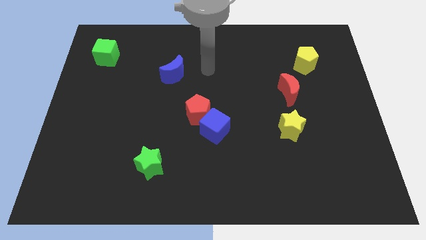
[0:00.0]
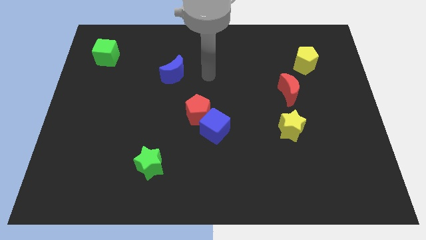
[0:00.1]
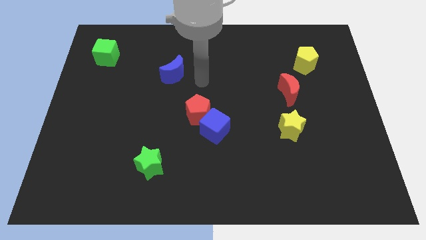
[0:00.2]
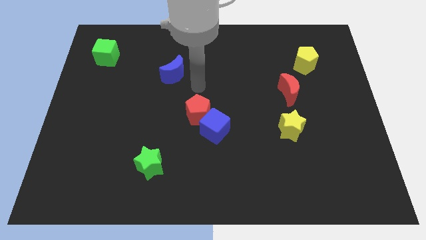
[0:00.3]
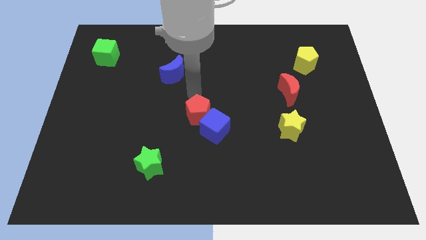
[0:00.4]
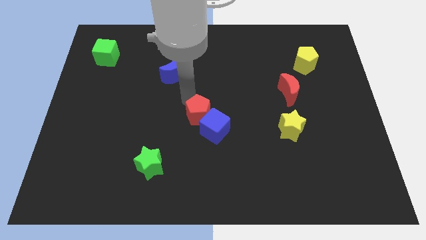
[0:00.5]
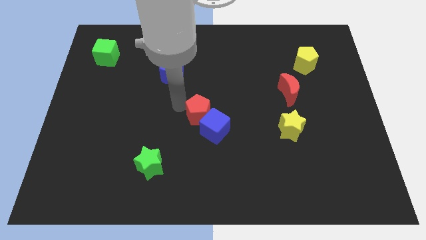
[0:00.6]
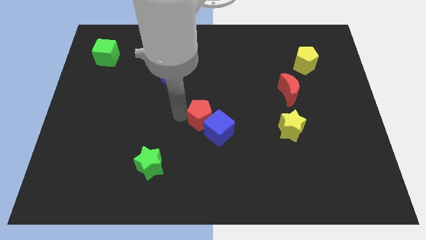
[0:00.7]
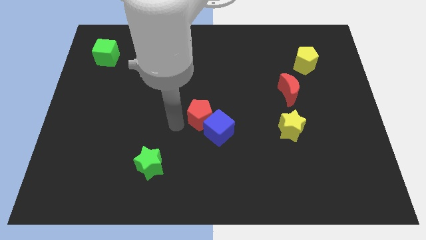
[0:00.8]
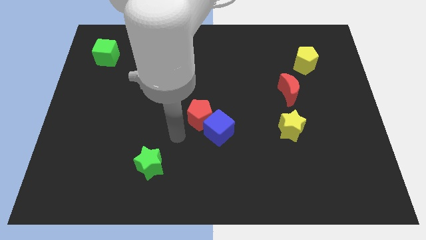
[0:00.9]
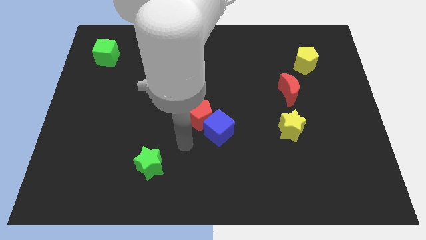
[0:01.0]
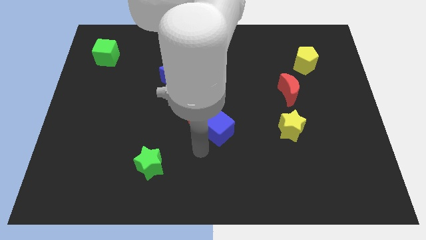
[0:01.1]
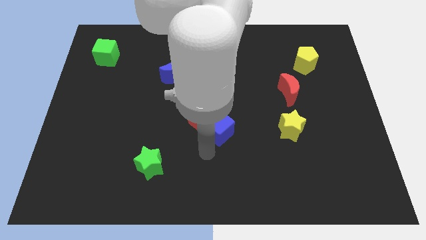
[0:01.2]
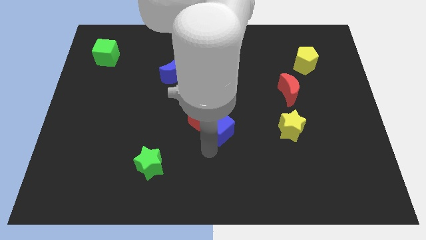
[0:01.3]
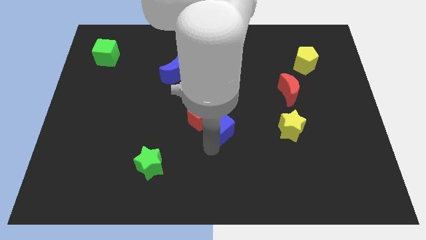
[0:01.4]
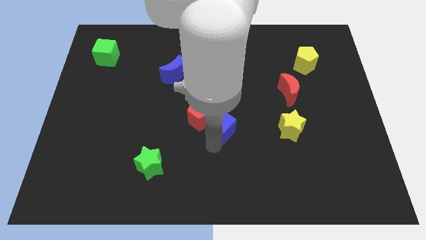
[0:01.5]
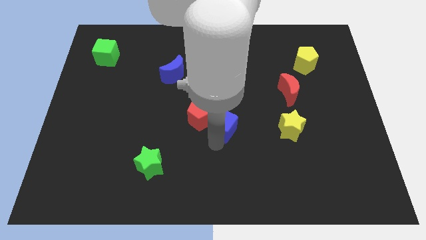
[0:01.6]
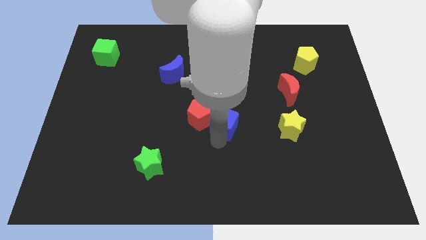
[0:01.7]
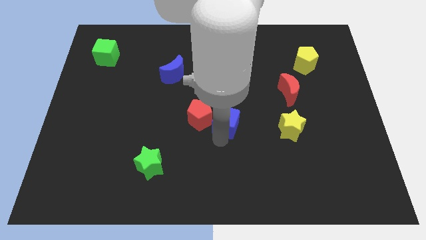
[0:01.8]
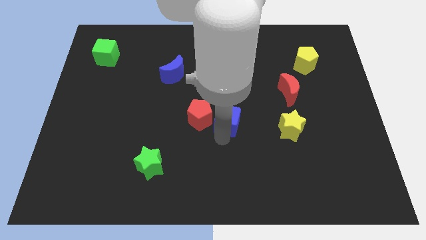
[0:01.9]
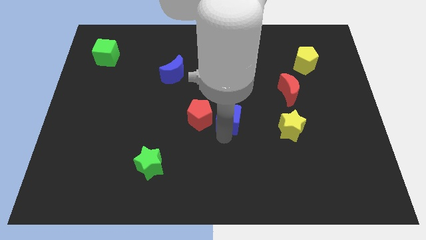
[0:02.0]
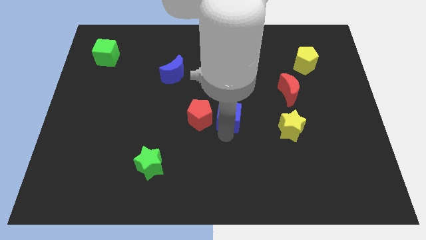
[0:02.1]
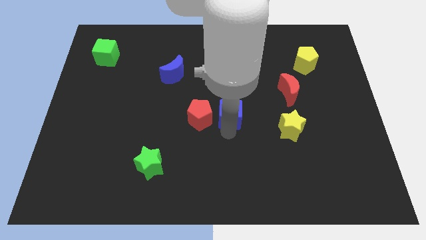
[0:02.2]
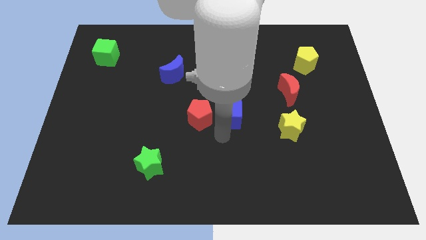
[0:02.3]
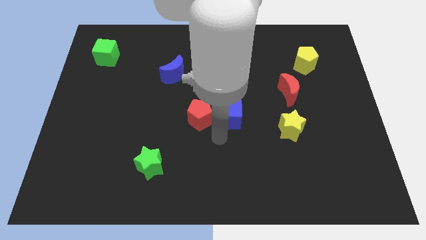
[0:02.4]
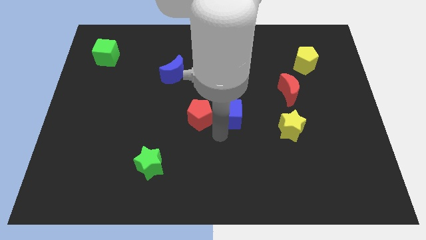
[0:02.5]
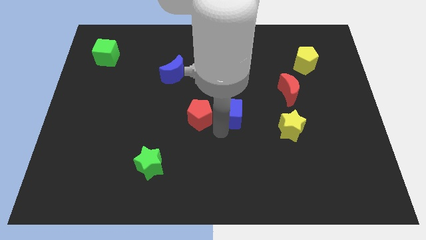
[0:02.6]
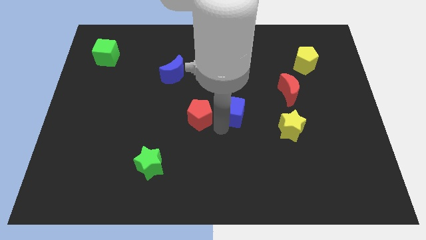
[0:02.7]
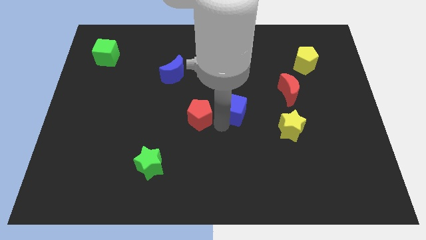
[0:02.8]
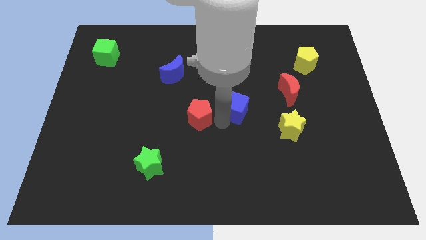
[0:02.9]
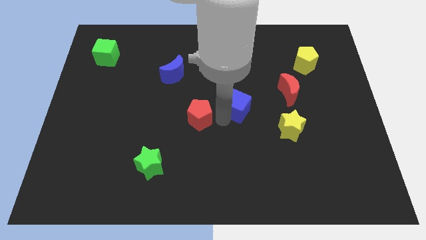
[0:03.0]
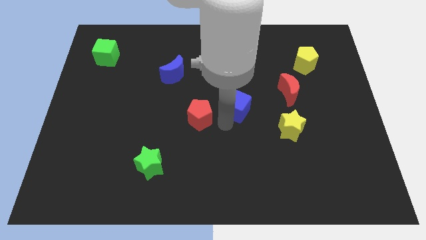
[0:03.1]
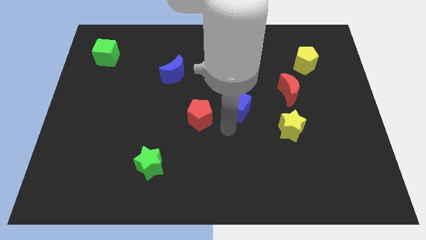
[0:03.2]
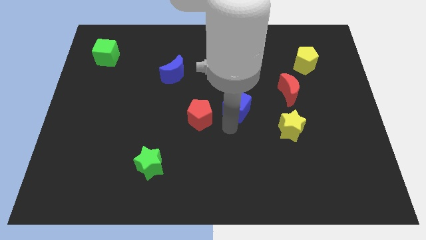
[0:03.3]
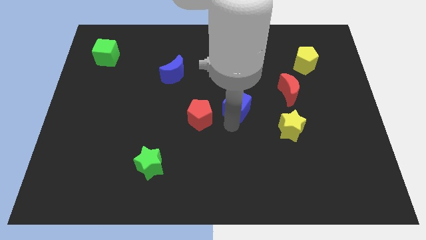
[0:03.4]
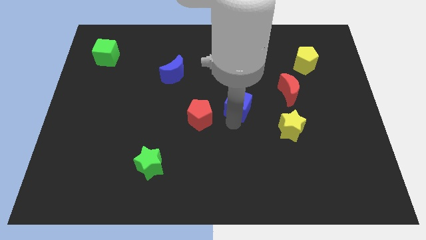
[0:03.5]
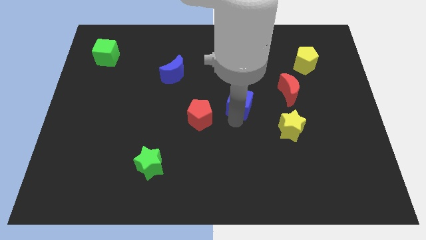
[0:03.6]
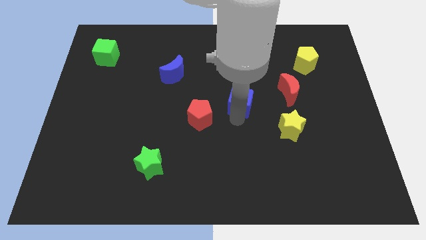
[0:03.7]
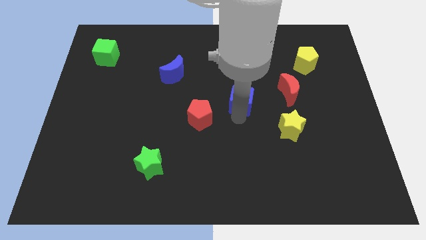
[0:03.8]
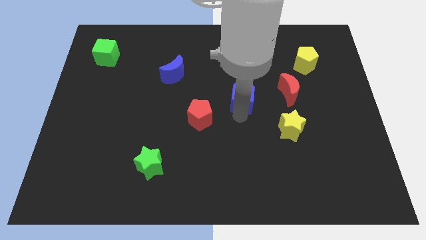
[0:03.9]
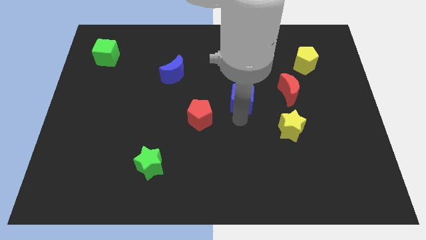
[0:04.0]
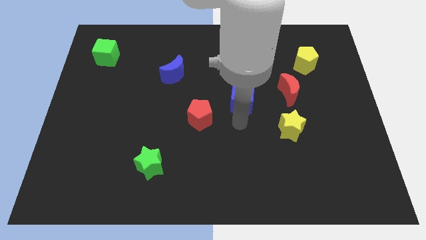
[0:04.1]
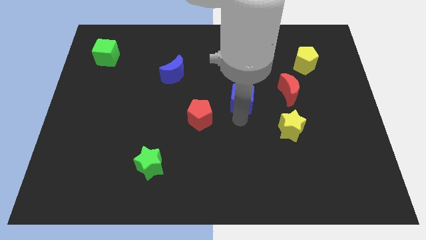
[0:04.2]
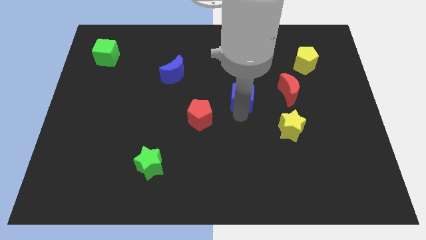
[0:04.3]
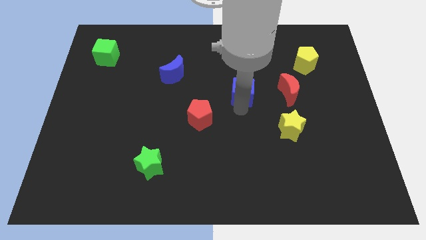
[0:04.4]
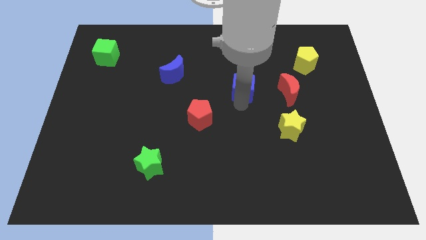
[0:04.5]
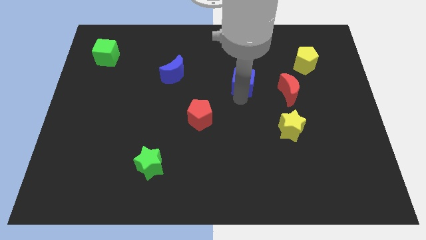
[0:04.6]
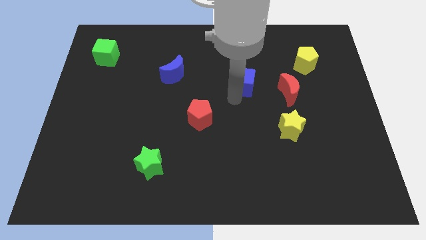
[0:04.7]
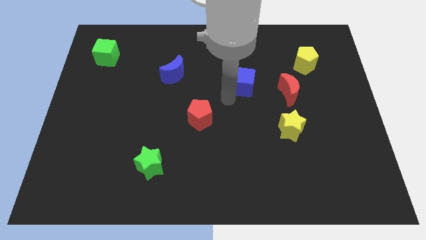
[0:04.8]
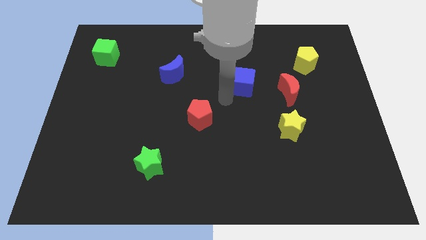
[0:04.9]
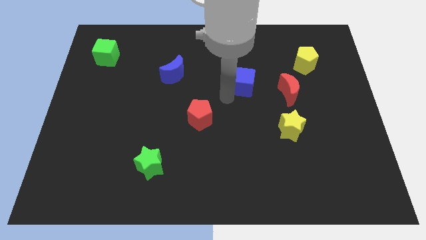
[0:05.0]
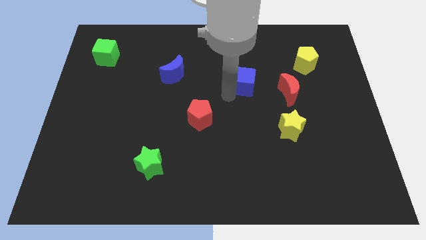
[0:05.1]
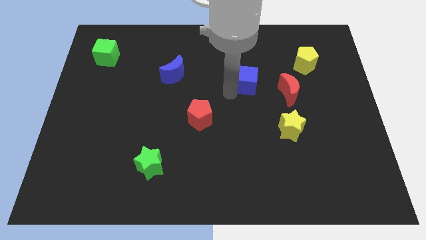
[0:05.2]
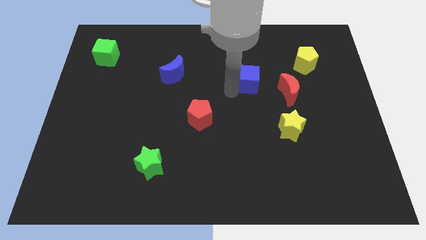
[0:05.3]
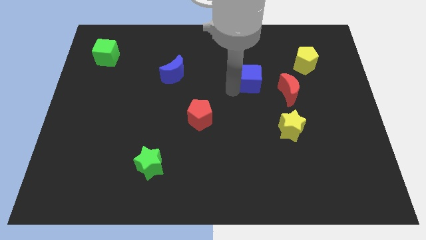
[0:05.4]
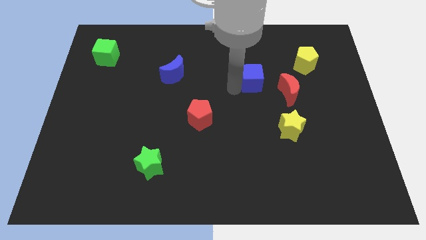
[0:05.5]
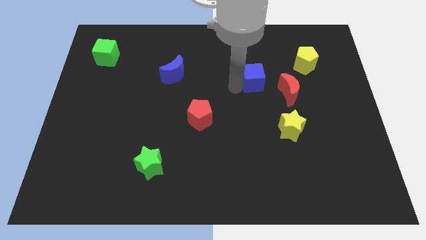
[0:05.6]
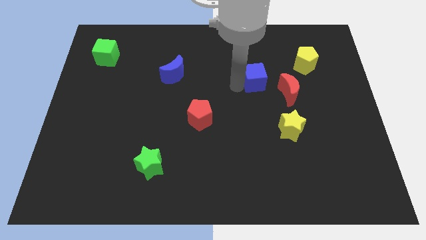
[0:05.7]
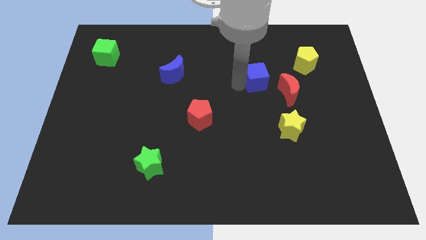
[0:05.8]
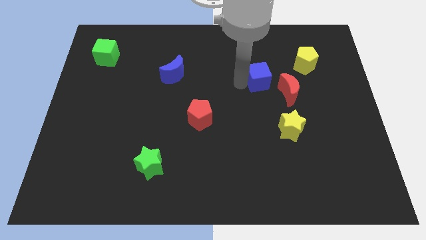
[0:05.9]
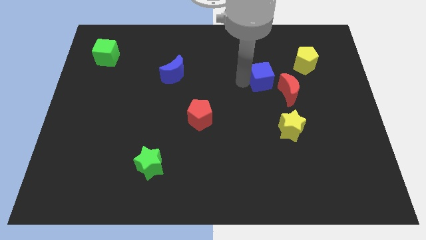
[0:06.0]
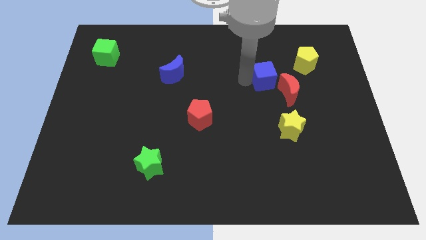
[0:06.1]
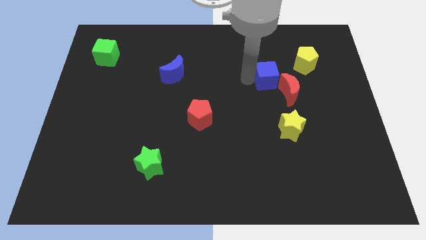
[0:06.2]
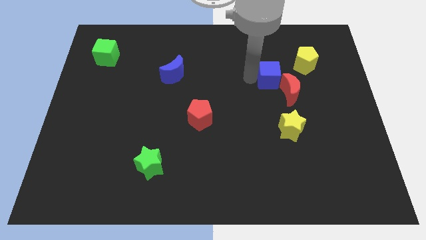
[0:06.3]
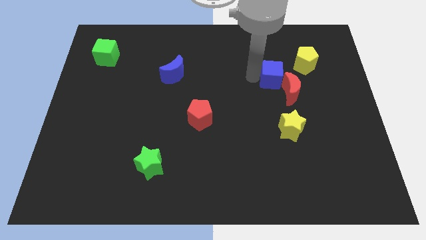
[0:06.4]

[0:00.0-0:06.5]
push the blue cube to the left side of the yellow pentagon
